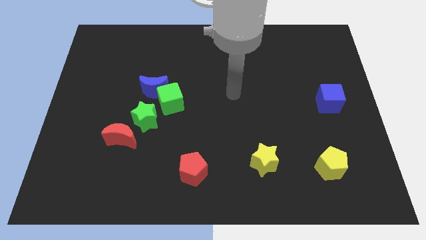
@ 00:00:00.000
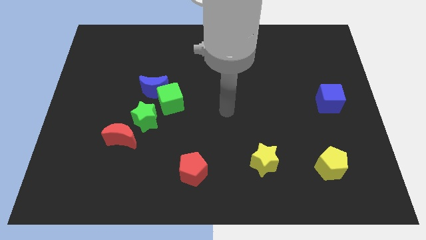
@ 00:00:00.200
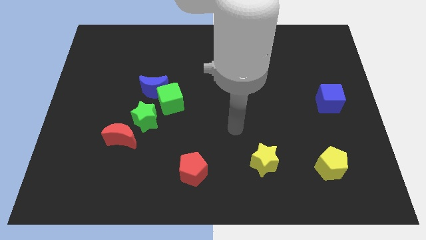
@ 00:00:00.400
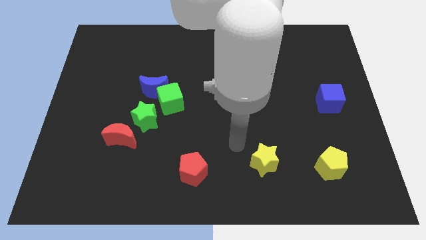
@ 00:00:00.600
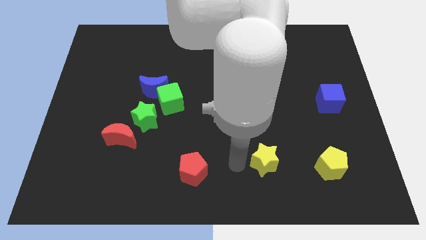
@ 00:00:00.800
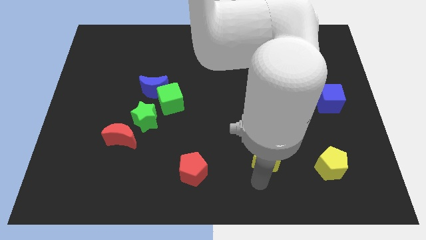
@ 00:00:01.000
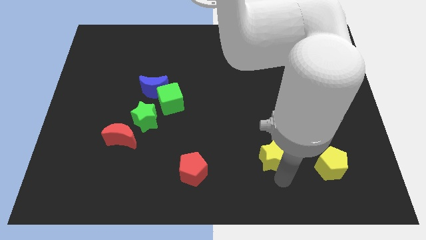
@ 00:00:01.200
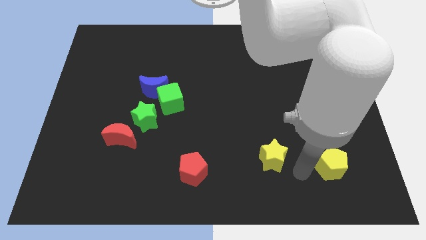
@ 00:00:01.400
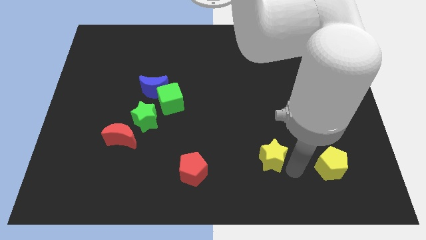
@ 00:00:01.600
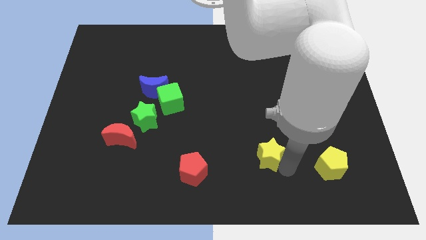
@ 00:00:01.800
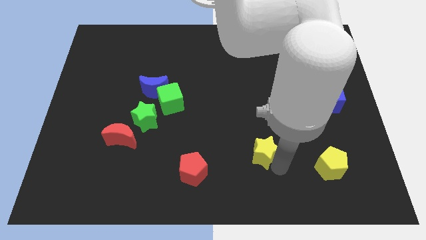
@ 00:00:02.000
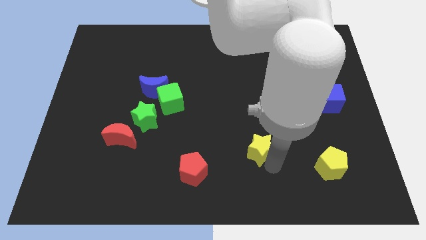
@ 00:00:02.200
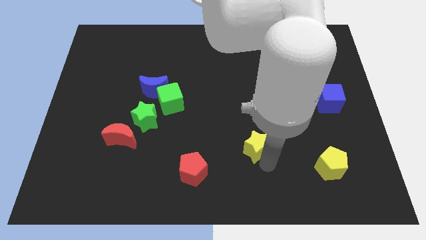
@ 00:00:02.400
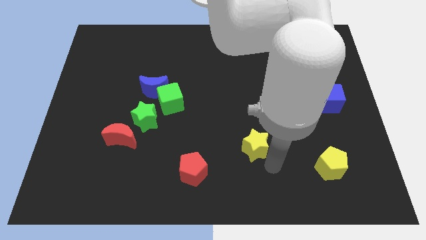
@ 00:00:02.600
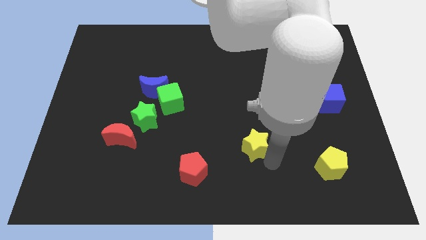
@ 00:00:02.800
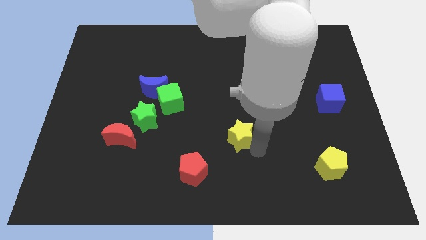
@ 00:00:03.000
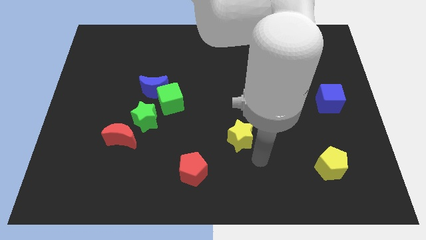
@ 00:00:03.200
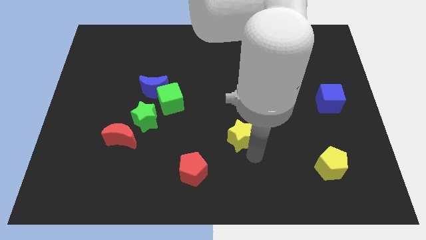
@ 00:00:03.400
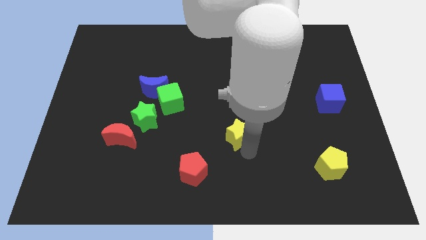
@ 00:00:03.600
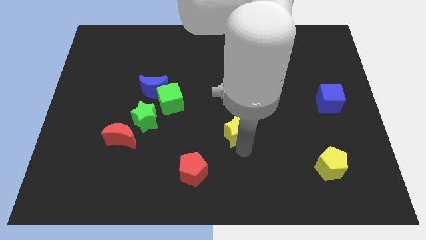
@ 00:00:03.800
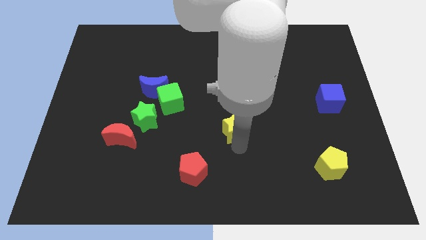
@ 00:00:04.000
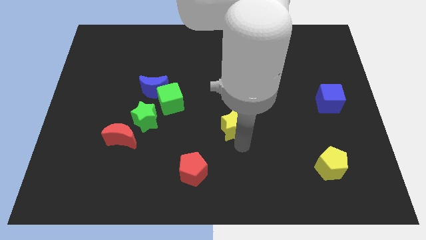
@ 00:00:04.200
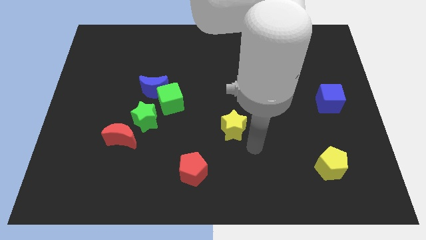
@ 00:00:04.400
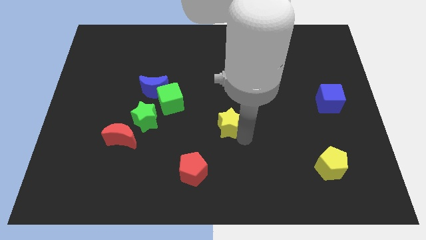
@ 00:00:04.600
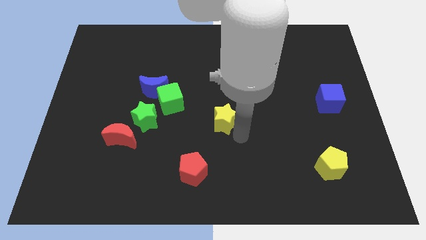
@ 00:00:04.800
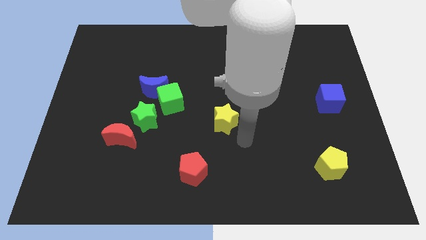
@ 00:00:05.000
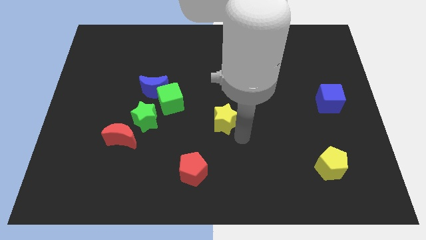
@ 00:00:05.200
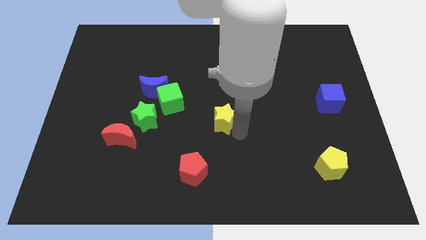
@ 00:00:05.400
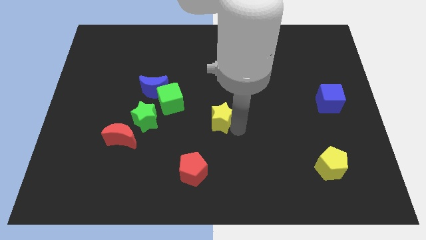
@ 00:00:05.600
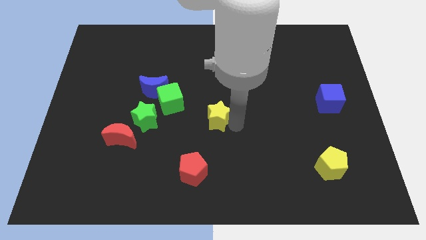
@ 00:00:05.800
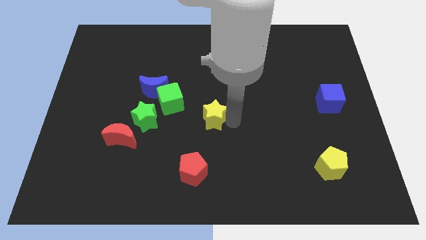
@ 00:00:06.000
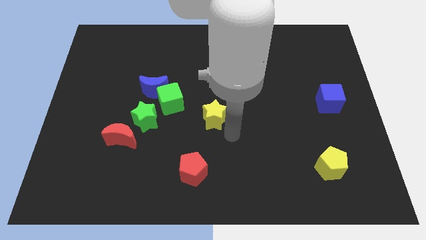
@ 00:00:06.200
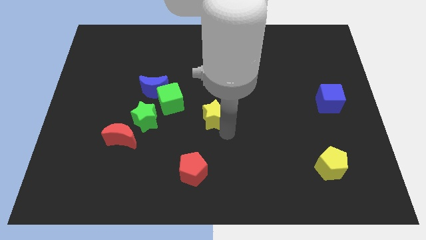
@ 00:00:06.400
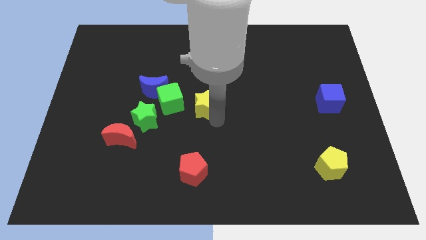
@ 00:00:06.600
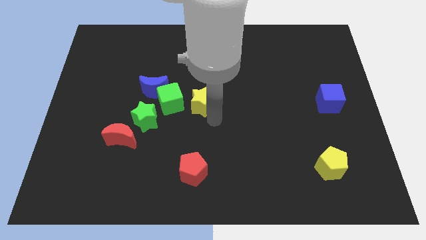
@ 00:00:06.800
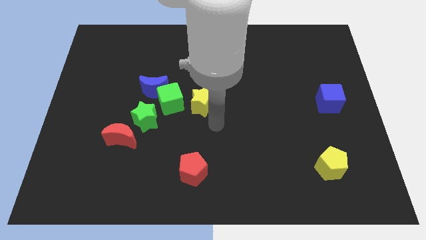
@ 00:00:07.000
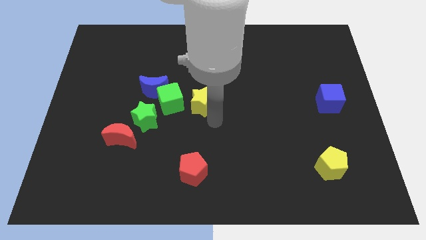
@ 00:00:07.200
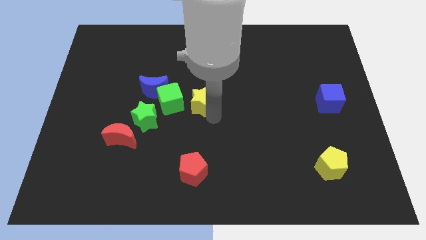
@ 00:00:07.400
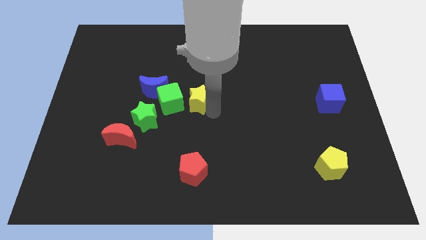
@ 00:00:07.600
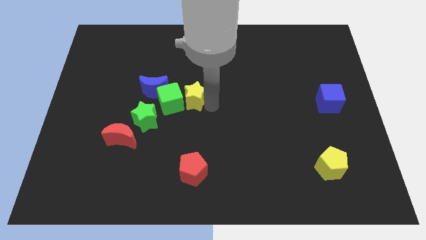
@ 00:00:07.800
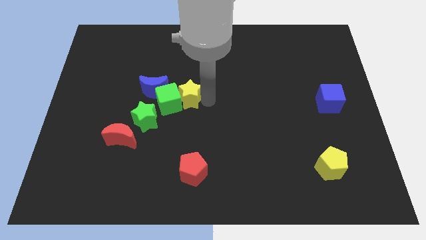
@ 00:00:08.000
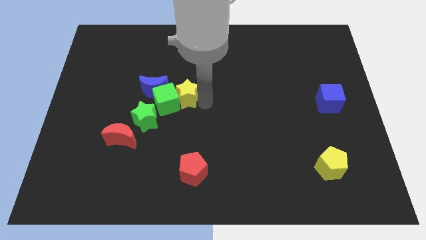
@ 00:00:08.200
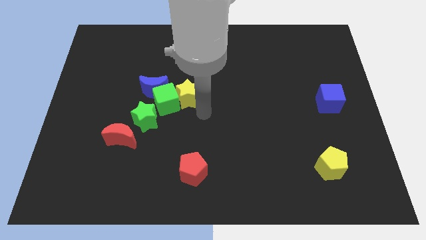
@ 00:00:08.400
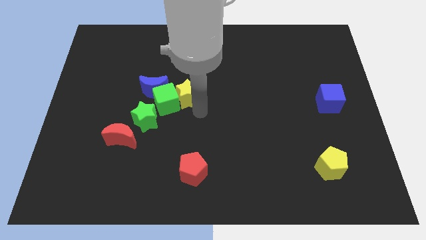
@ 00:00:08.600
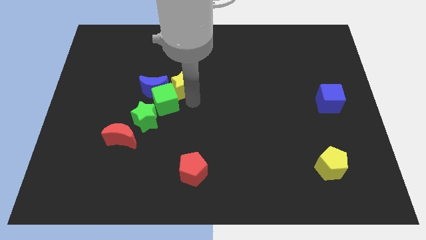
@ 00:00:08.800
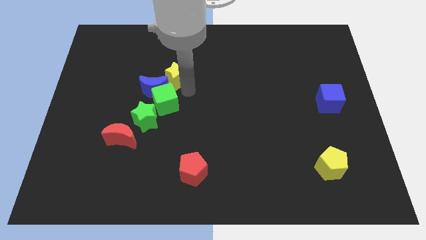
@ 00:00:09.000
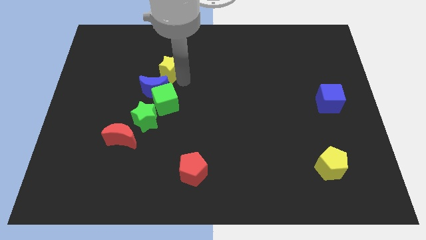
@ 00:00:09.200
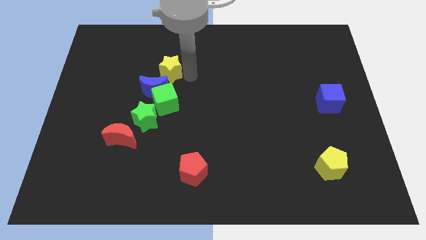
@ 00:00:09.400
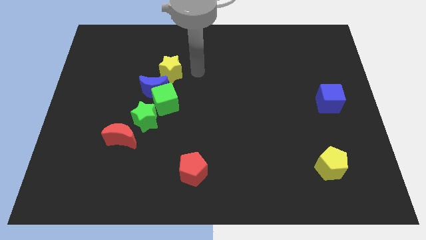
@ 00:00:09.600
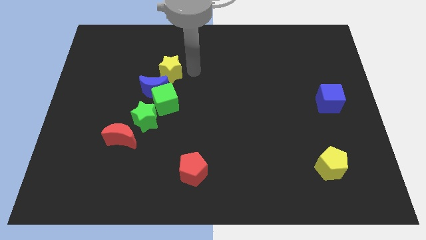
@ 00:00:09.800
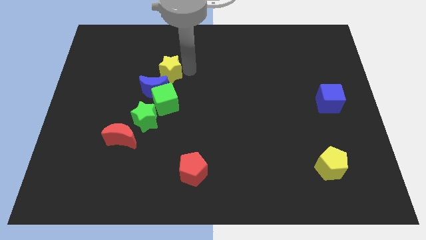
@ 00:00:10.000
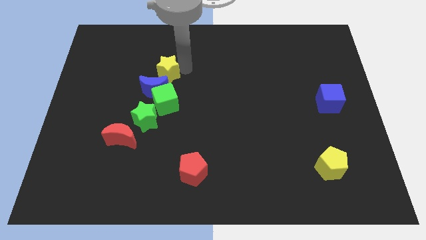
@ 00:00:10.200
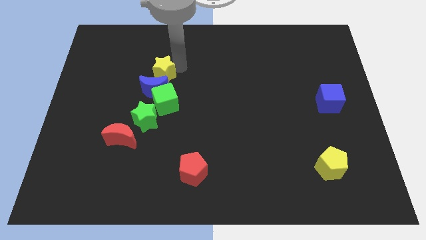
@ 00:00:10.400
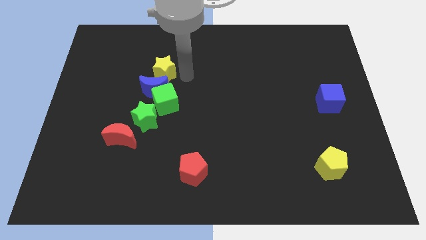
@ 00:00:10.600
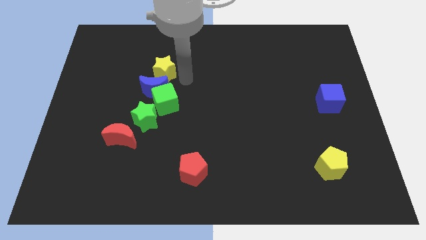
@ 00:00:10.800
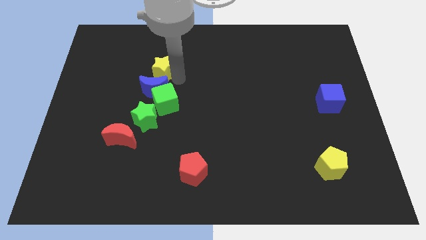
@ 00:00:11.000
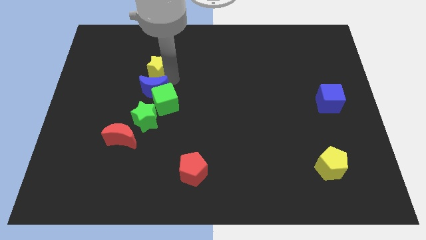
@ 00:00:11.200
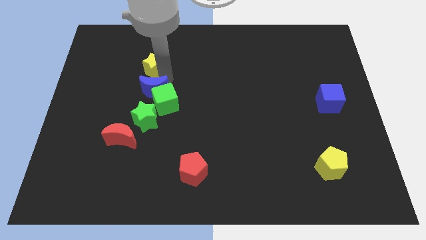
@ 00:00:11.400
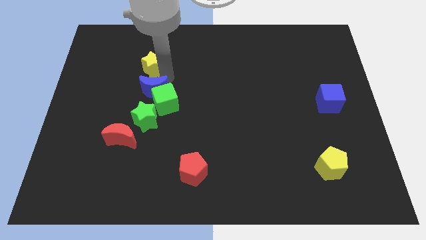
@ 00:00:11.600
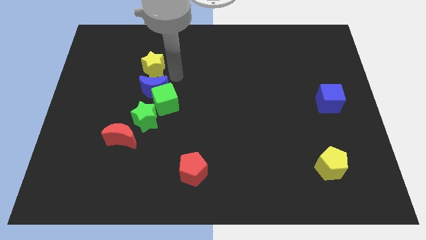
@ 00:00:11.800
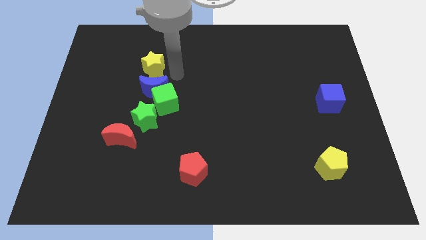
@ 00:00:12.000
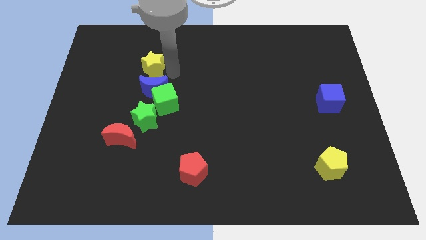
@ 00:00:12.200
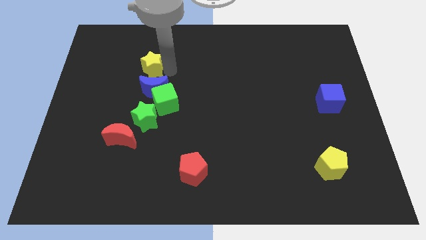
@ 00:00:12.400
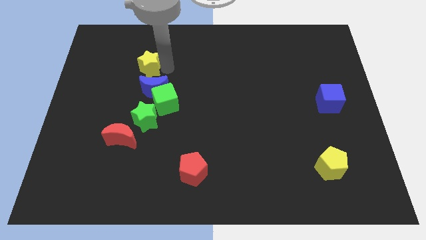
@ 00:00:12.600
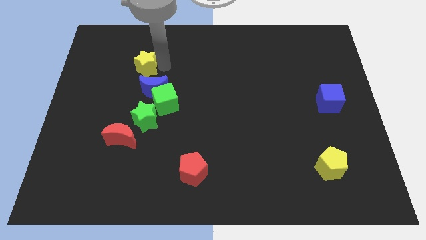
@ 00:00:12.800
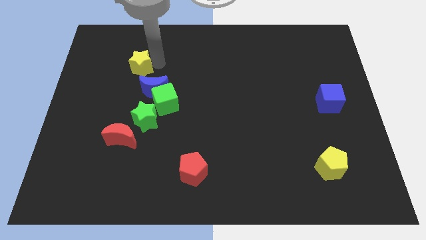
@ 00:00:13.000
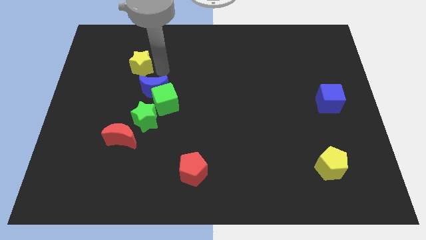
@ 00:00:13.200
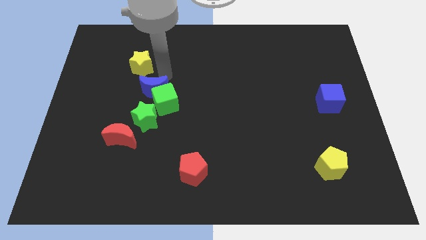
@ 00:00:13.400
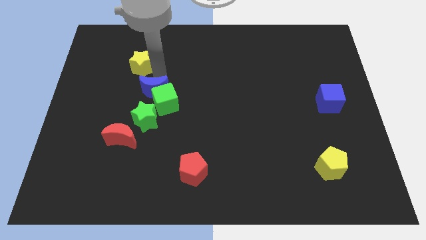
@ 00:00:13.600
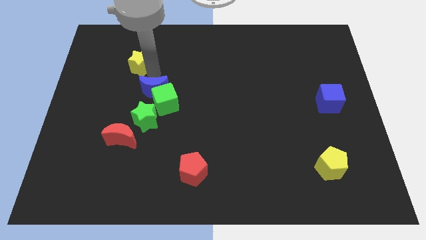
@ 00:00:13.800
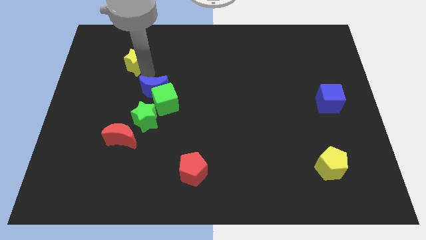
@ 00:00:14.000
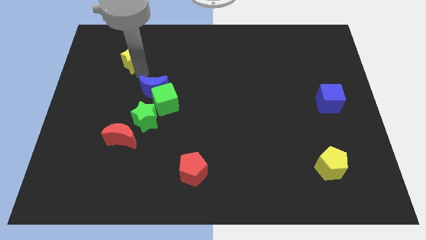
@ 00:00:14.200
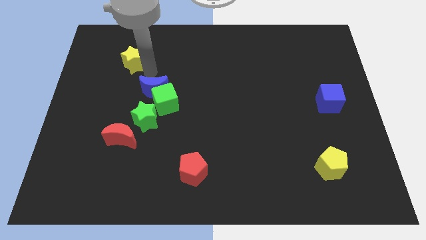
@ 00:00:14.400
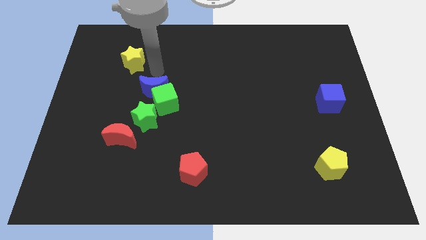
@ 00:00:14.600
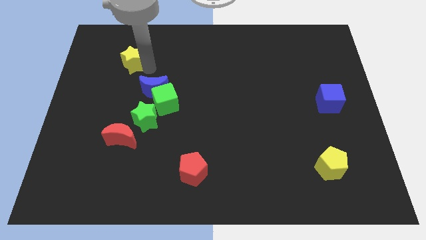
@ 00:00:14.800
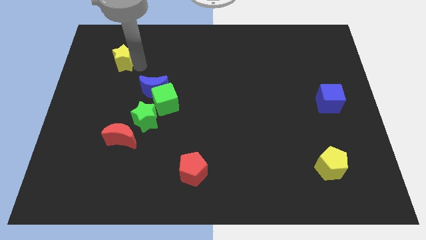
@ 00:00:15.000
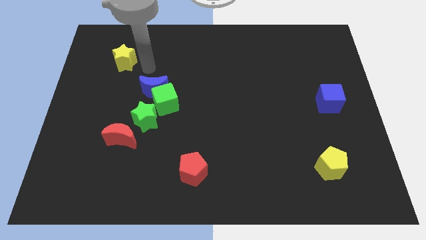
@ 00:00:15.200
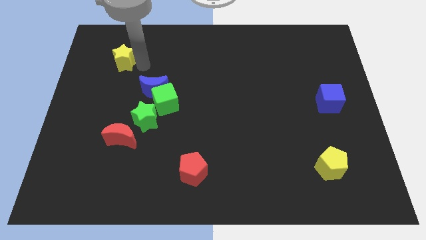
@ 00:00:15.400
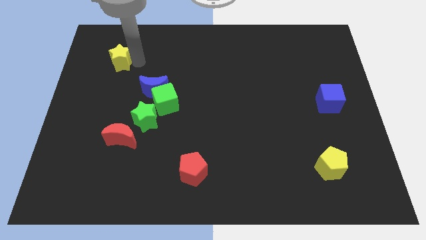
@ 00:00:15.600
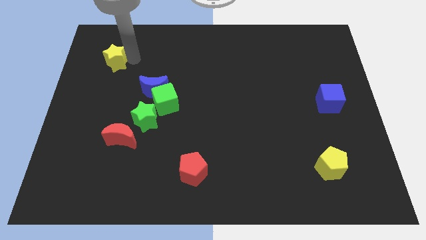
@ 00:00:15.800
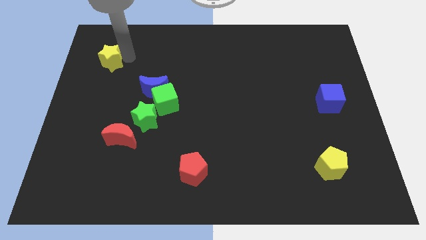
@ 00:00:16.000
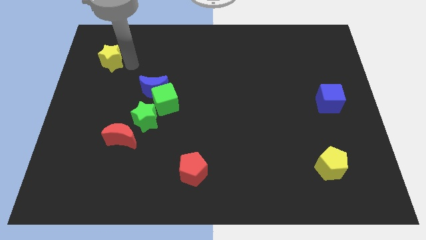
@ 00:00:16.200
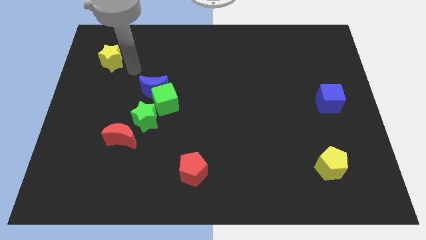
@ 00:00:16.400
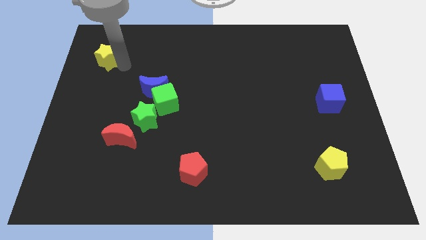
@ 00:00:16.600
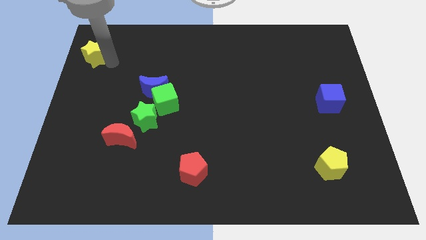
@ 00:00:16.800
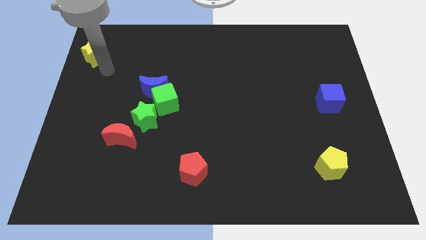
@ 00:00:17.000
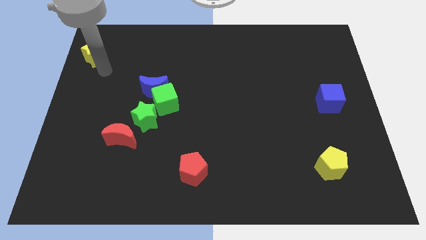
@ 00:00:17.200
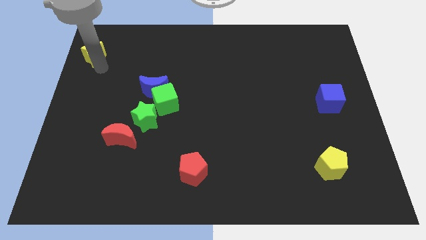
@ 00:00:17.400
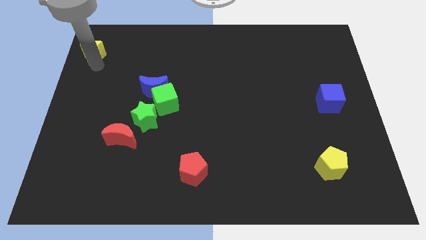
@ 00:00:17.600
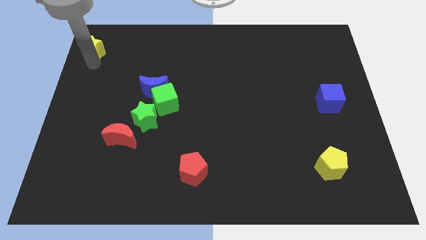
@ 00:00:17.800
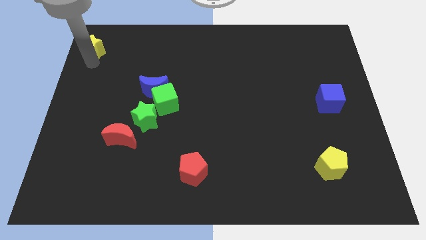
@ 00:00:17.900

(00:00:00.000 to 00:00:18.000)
move the yellow star to the top left corner
